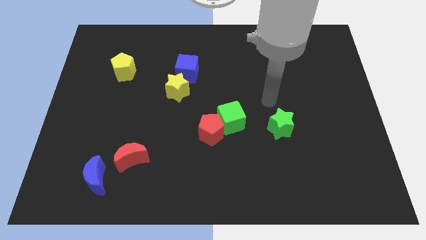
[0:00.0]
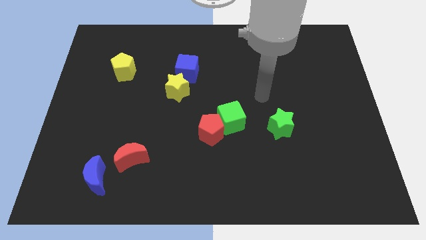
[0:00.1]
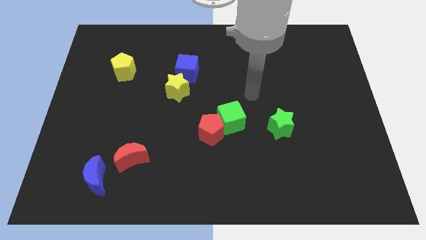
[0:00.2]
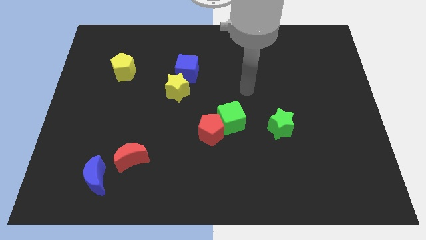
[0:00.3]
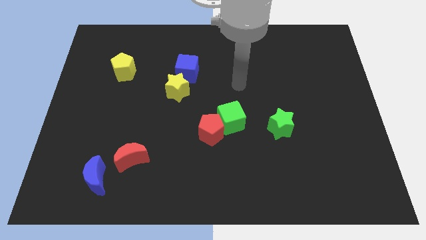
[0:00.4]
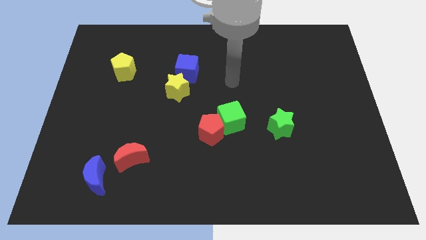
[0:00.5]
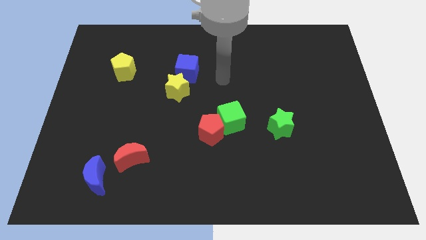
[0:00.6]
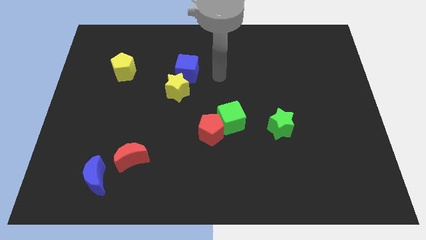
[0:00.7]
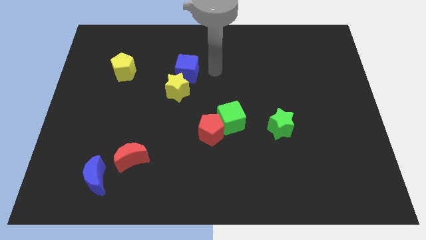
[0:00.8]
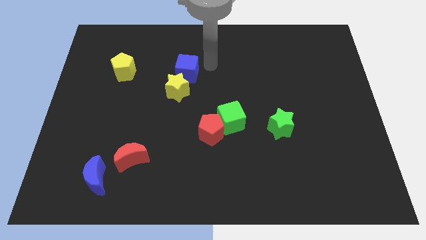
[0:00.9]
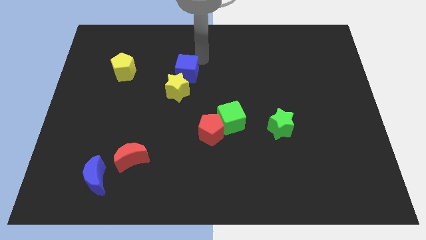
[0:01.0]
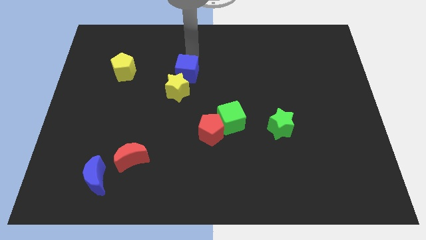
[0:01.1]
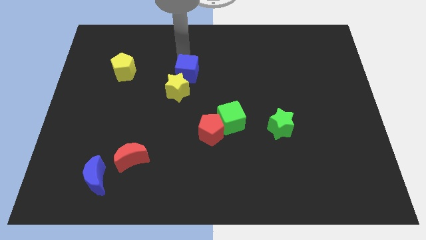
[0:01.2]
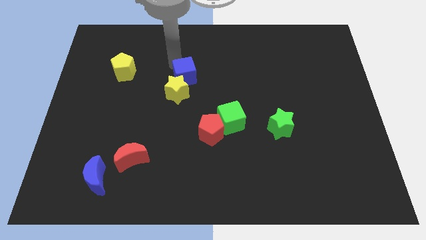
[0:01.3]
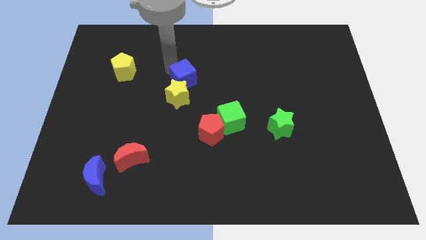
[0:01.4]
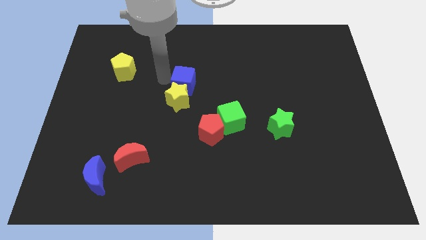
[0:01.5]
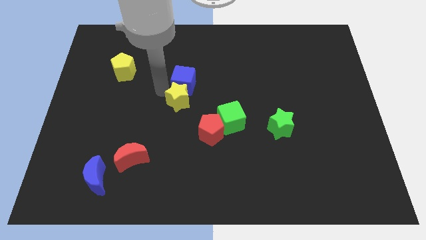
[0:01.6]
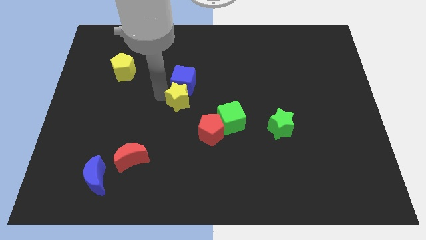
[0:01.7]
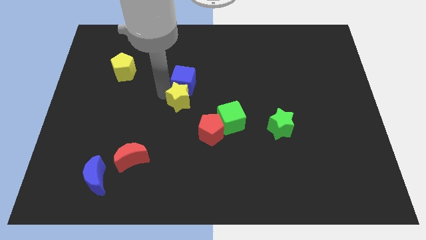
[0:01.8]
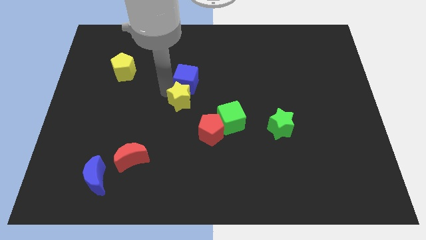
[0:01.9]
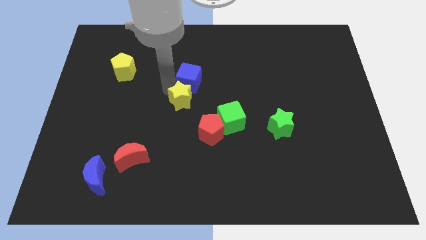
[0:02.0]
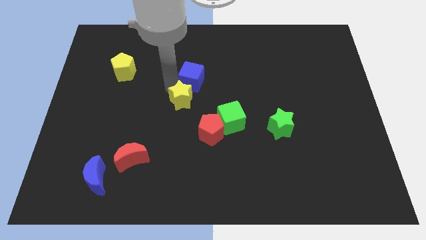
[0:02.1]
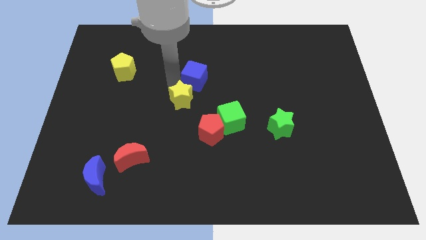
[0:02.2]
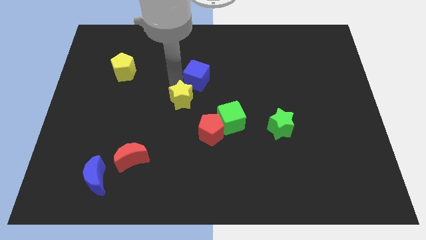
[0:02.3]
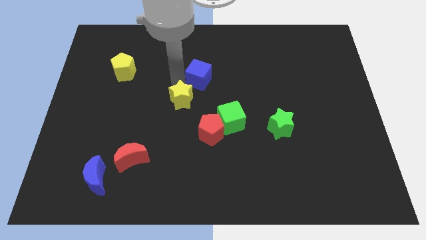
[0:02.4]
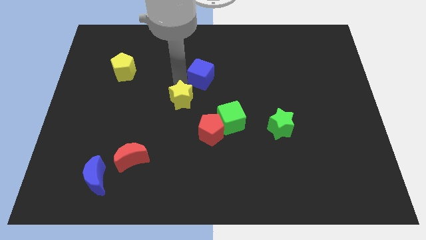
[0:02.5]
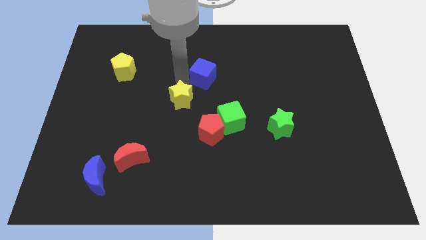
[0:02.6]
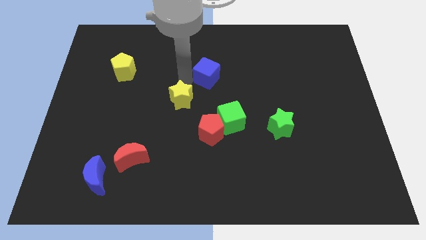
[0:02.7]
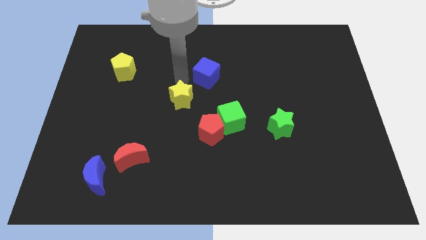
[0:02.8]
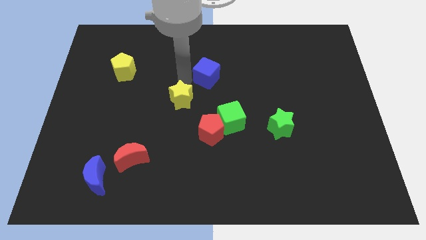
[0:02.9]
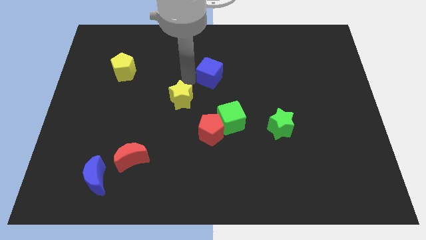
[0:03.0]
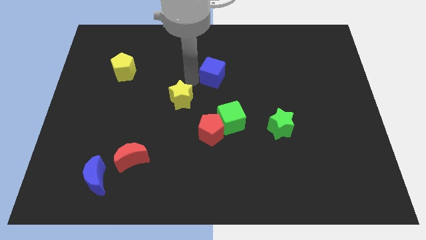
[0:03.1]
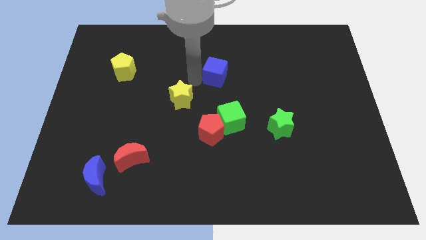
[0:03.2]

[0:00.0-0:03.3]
slide the blue cube a little to the right

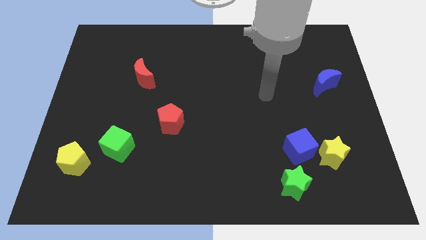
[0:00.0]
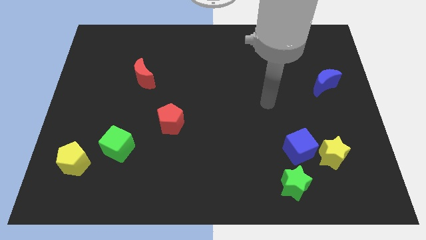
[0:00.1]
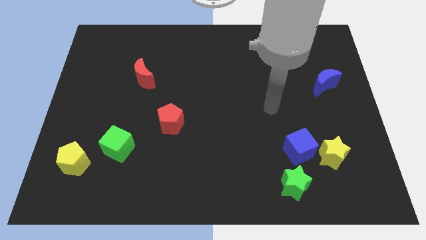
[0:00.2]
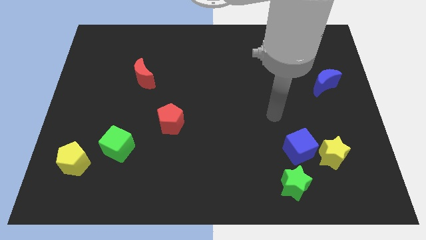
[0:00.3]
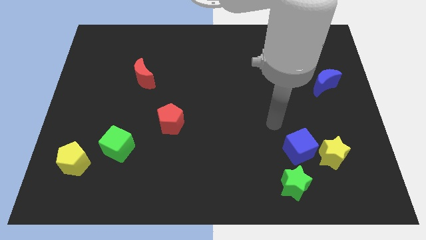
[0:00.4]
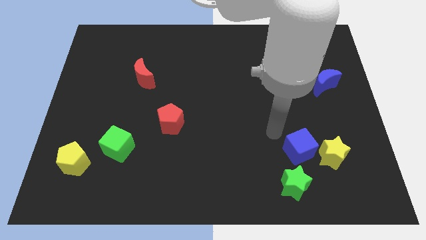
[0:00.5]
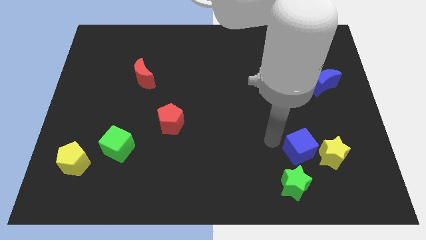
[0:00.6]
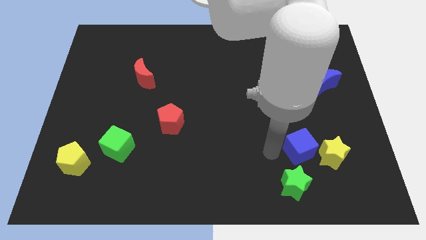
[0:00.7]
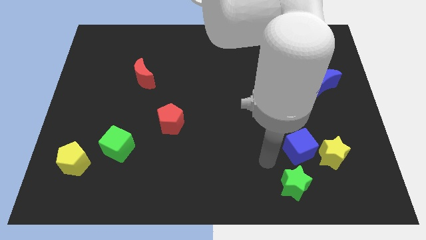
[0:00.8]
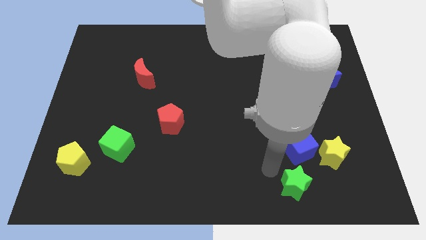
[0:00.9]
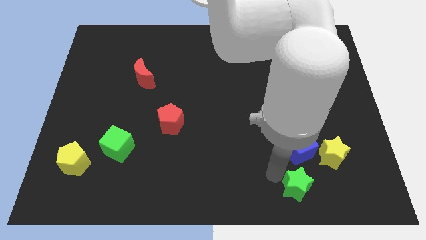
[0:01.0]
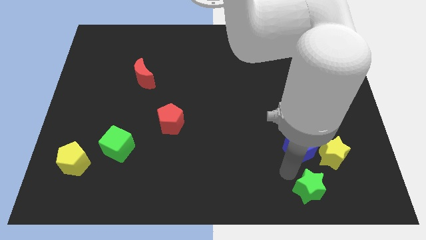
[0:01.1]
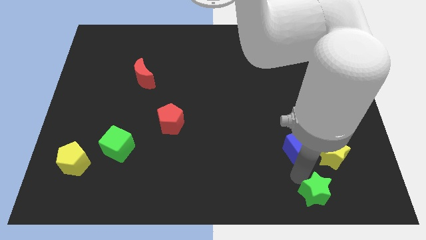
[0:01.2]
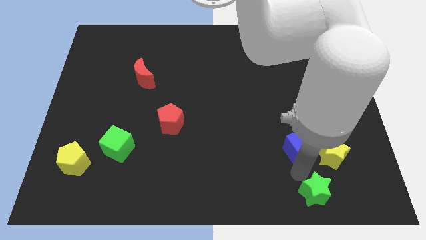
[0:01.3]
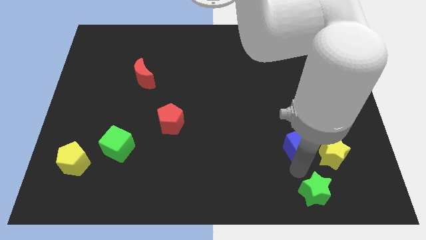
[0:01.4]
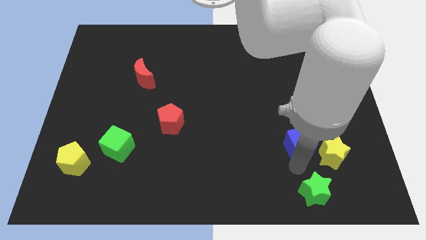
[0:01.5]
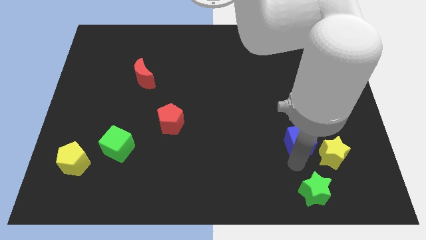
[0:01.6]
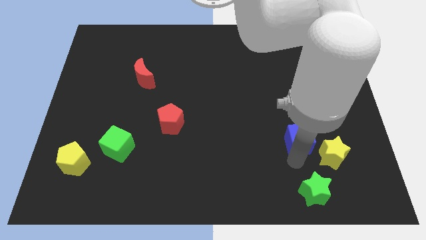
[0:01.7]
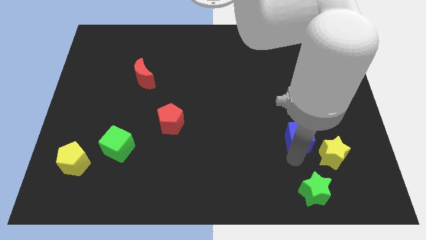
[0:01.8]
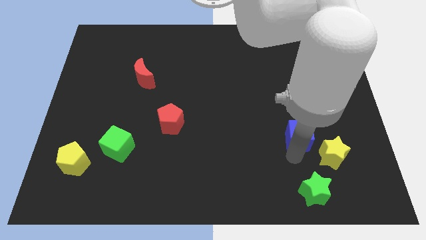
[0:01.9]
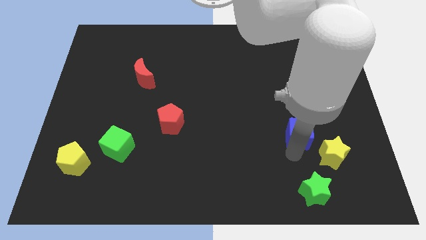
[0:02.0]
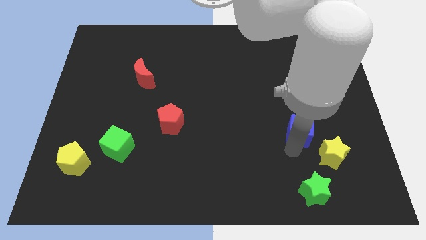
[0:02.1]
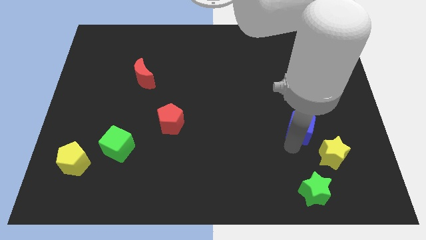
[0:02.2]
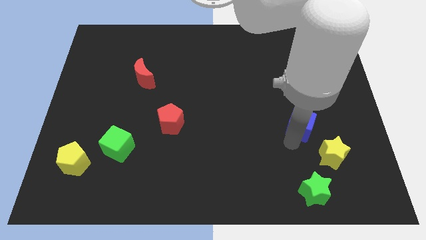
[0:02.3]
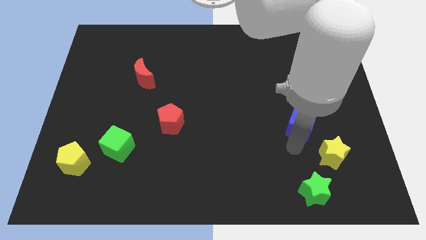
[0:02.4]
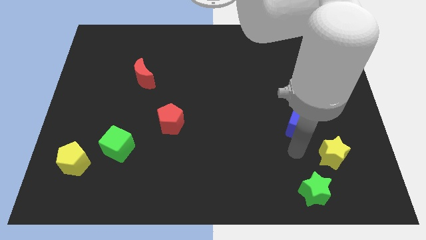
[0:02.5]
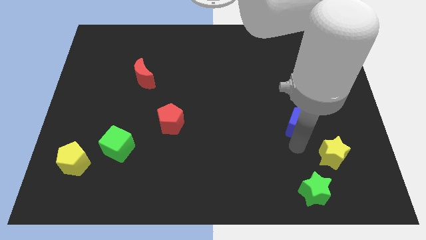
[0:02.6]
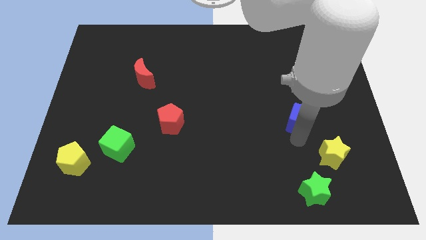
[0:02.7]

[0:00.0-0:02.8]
slightly slide the blue cube up

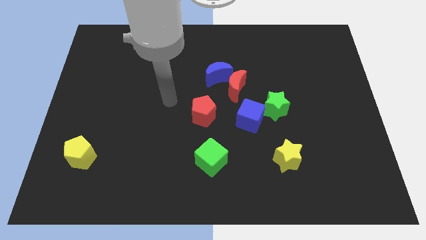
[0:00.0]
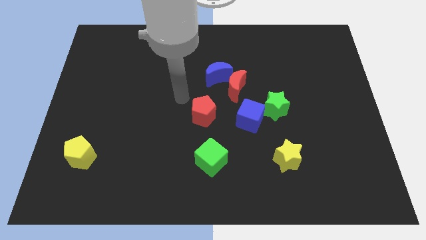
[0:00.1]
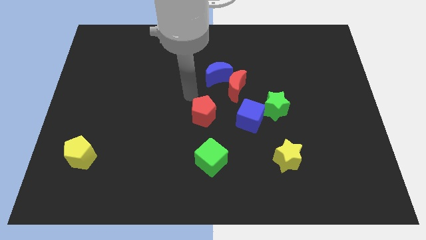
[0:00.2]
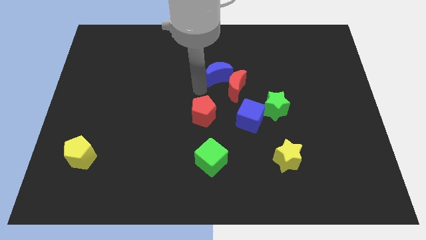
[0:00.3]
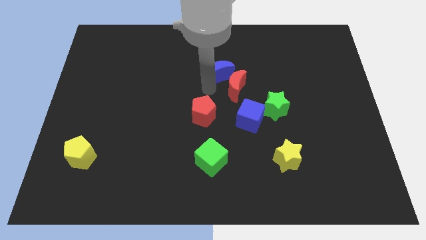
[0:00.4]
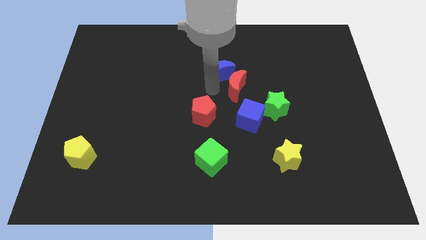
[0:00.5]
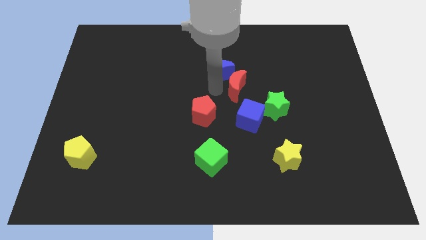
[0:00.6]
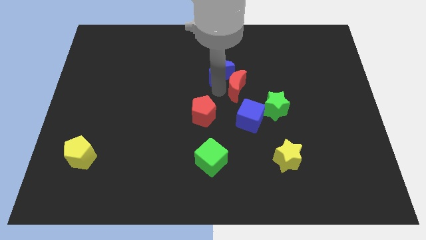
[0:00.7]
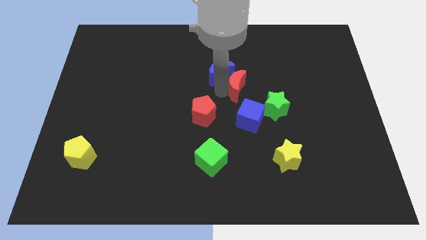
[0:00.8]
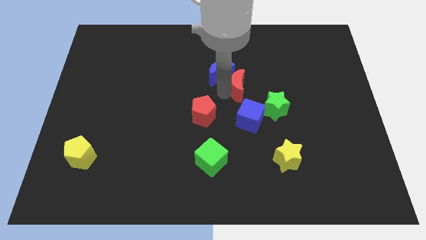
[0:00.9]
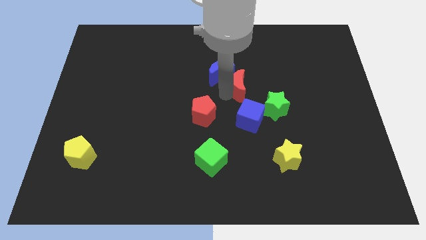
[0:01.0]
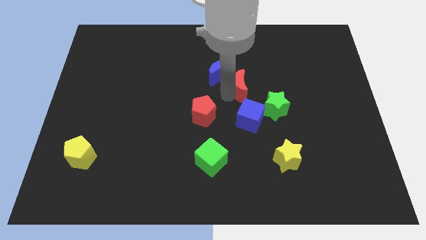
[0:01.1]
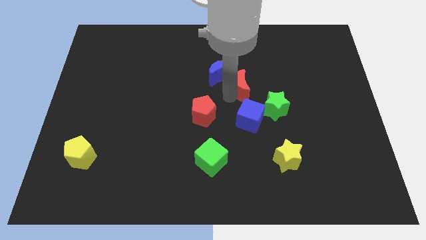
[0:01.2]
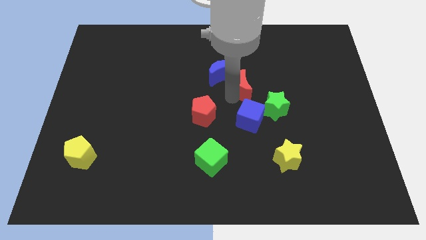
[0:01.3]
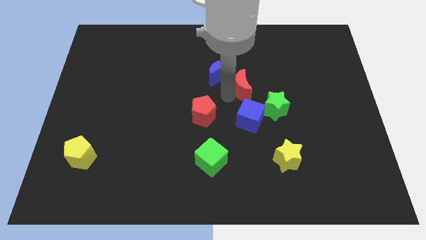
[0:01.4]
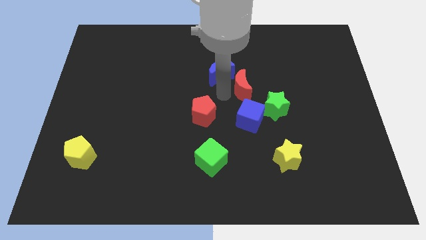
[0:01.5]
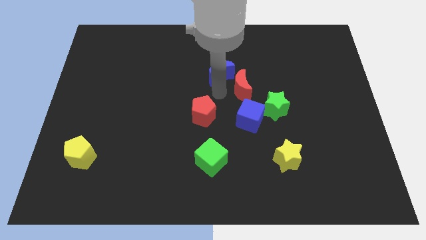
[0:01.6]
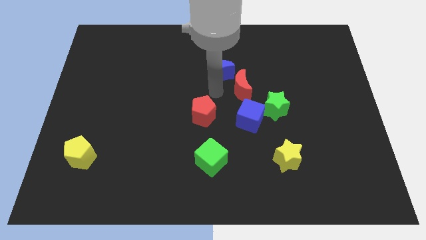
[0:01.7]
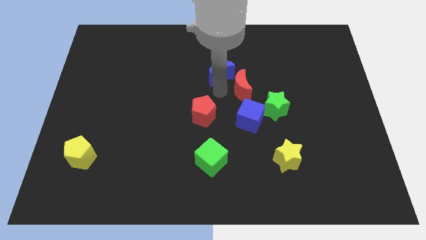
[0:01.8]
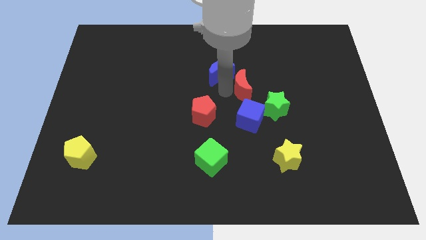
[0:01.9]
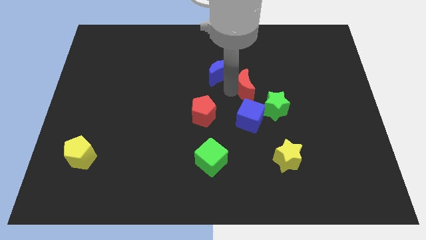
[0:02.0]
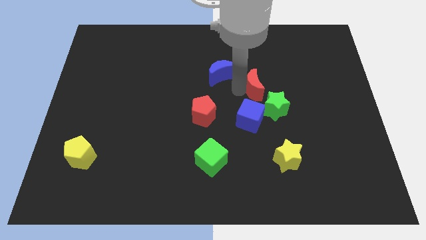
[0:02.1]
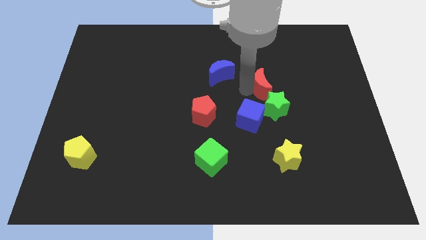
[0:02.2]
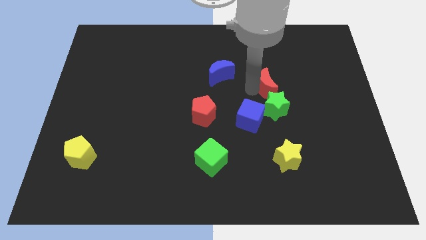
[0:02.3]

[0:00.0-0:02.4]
slide the red moon a bit to the right
